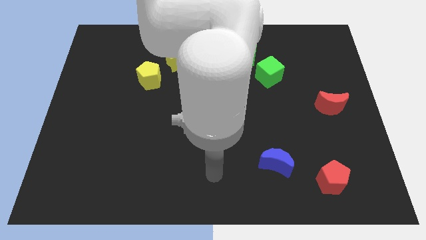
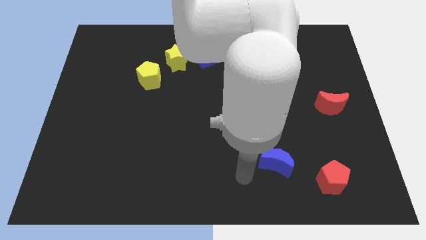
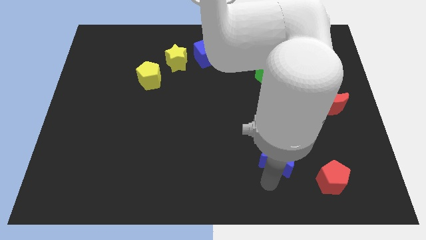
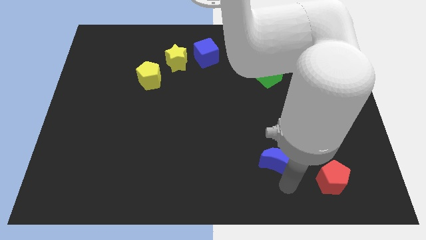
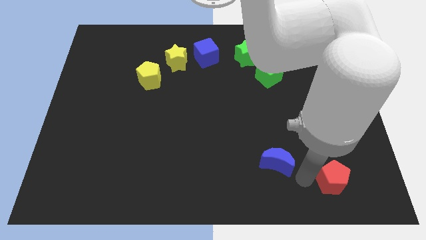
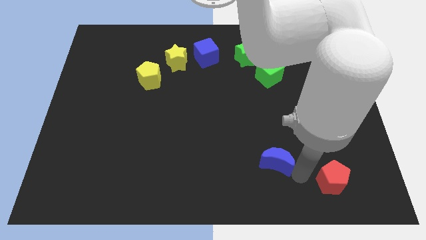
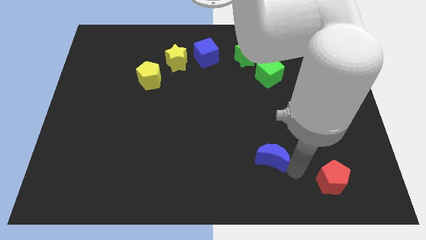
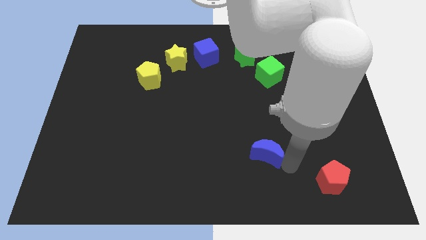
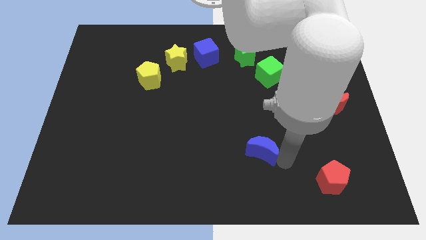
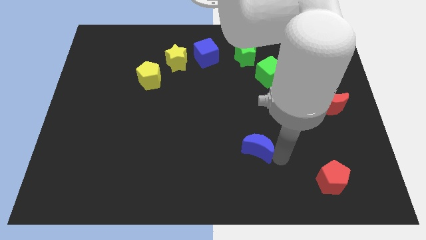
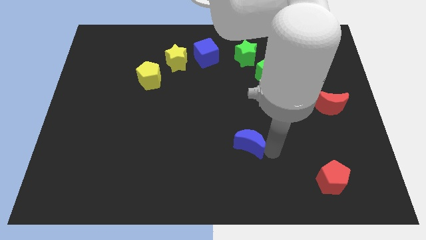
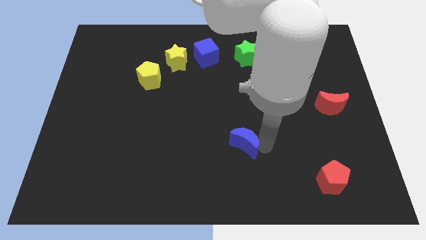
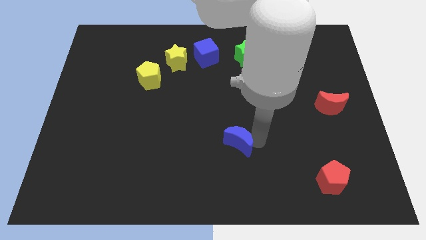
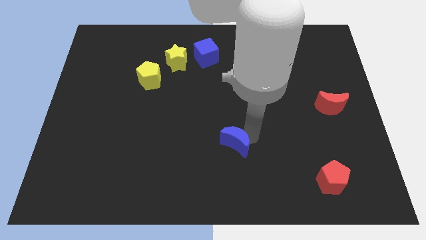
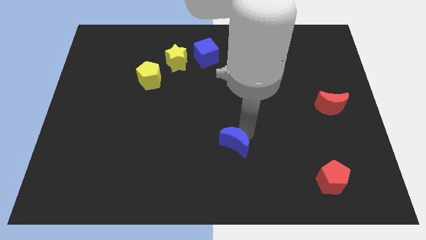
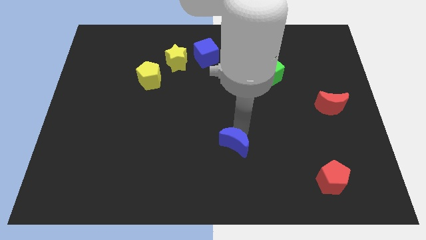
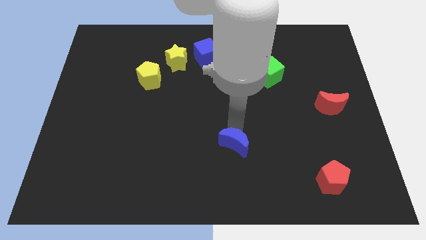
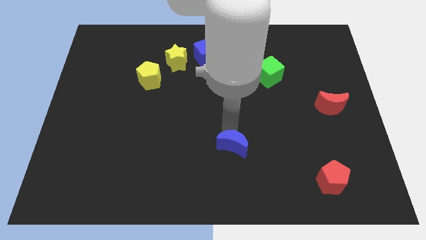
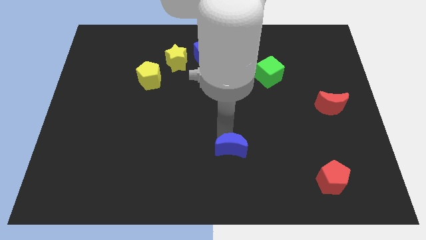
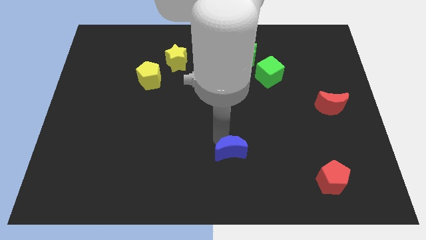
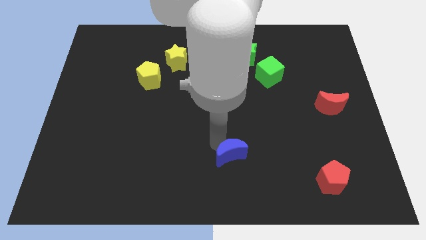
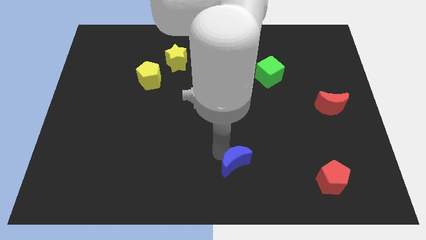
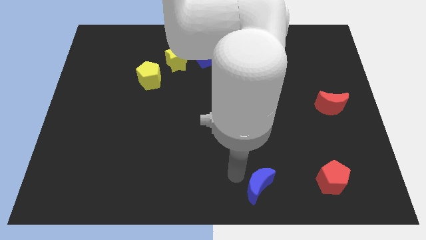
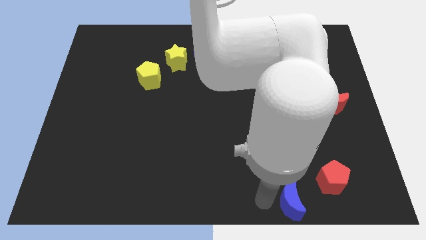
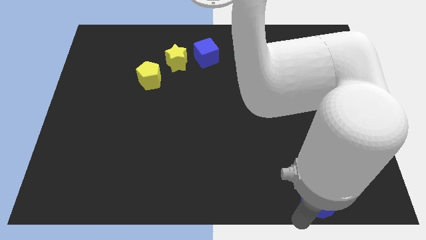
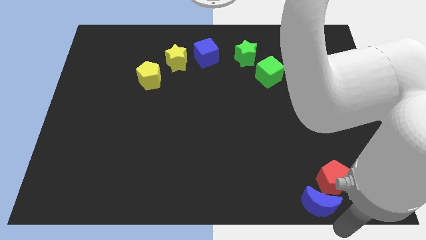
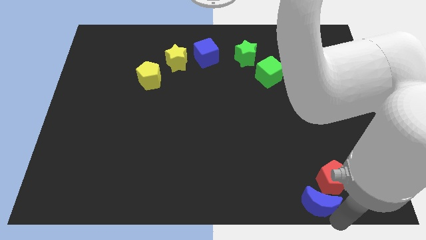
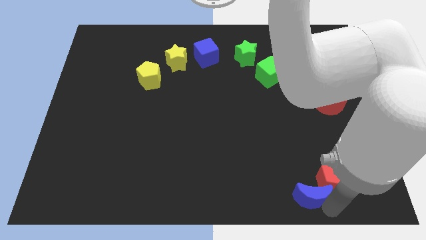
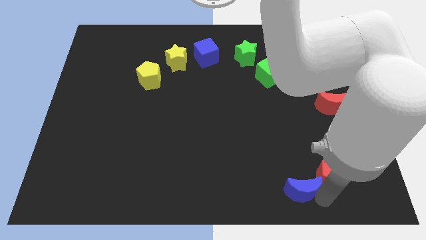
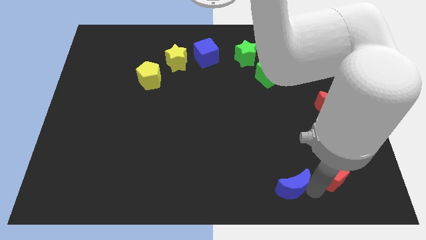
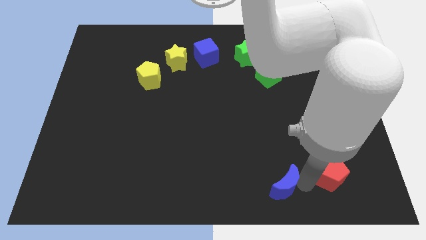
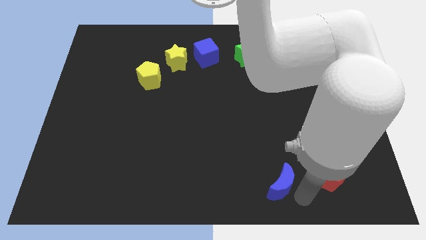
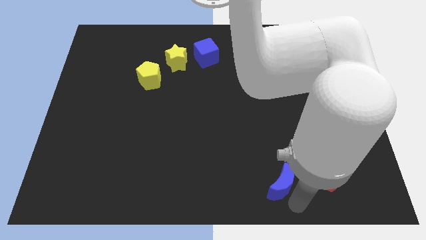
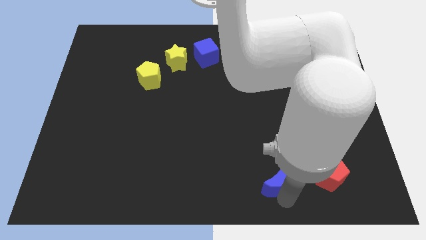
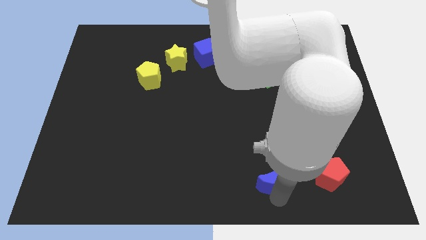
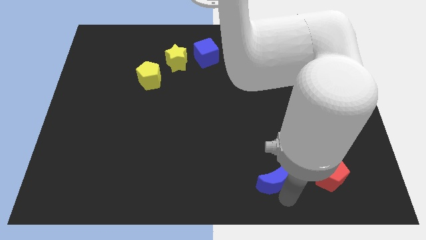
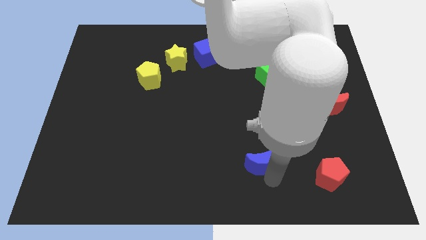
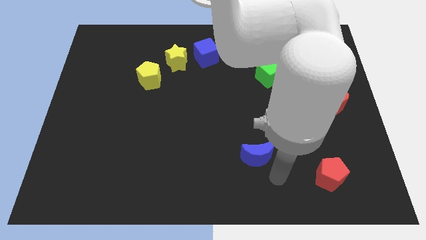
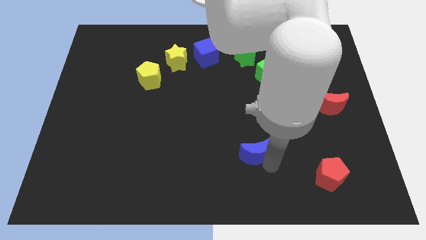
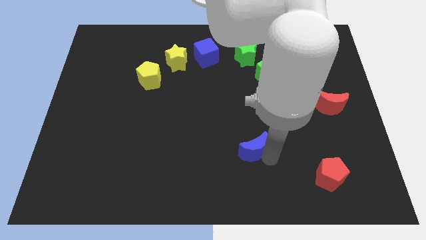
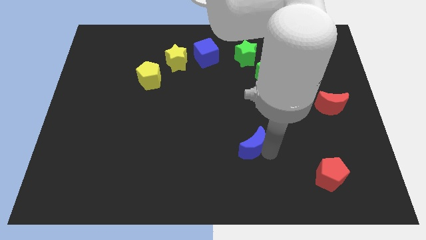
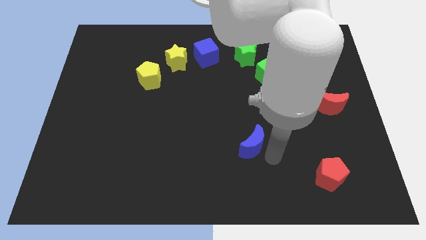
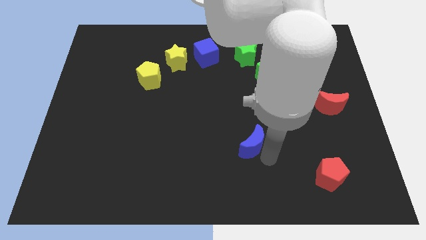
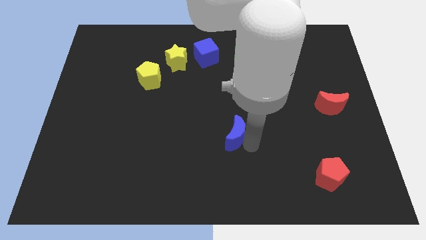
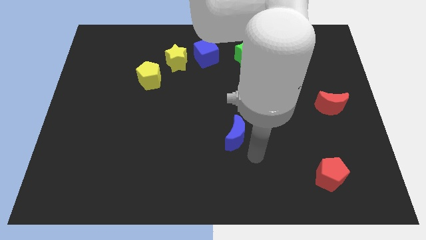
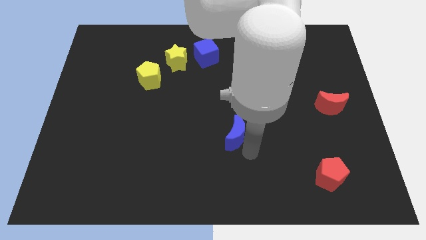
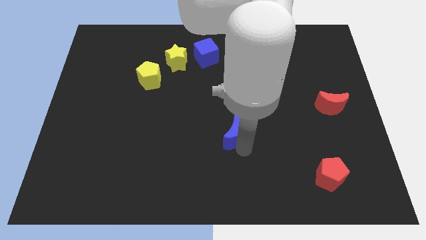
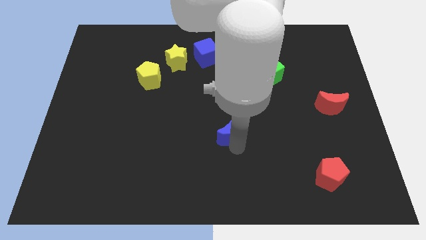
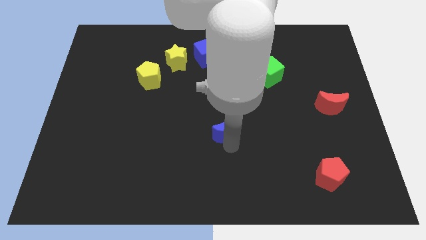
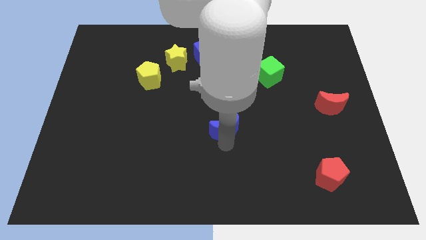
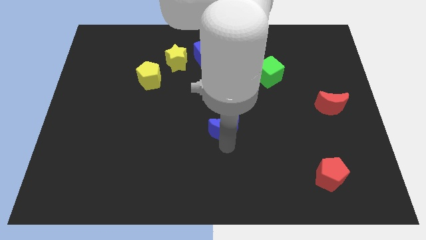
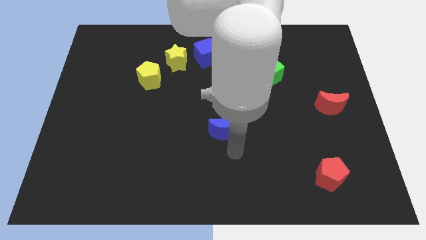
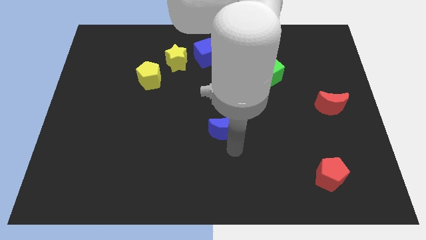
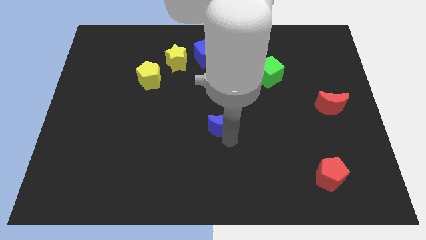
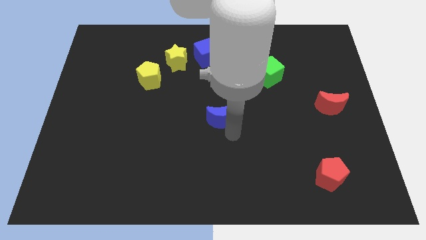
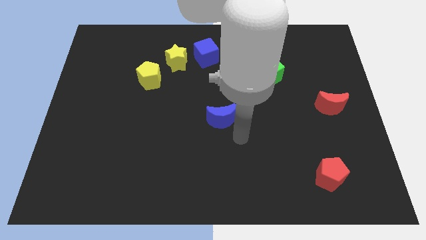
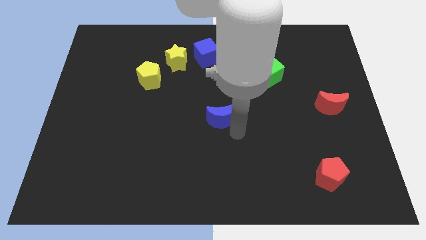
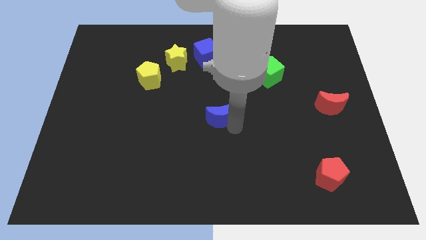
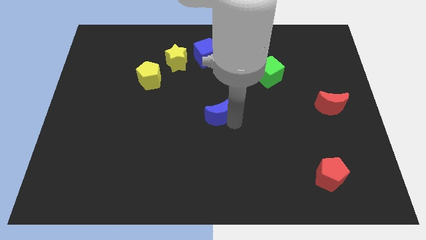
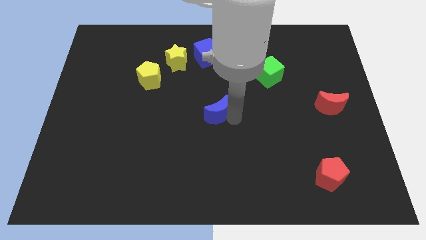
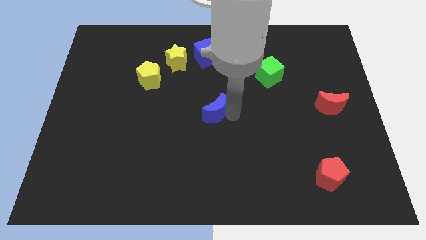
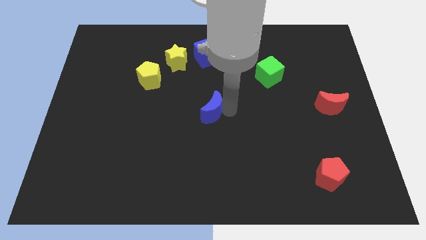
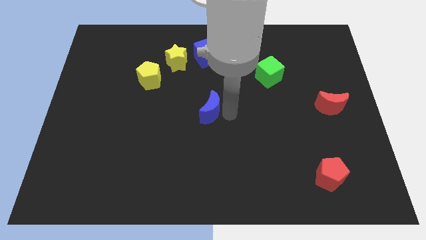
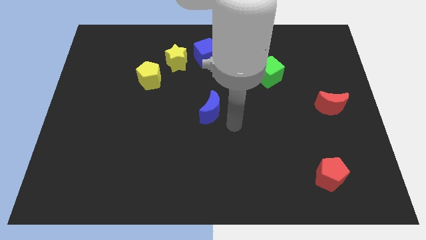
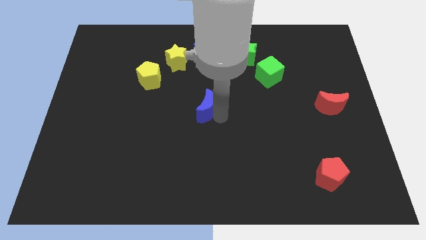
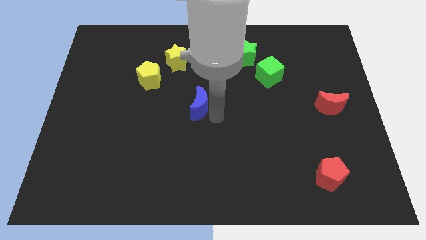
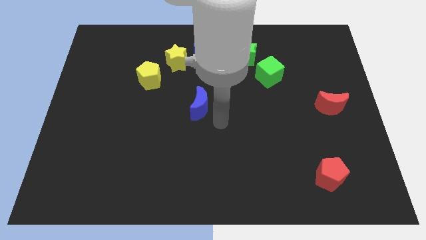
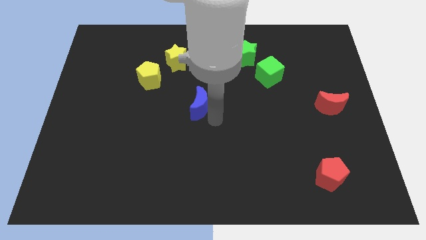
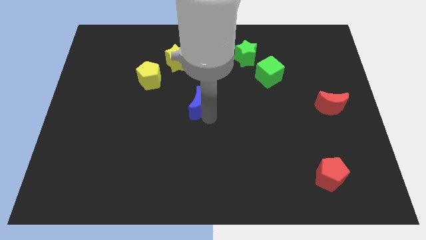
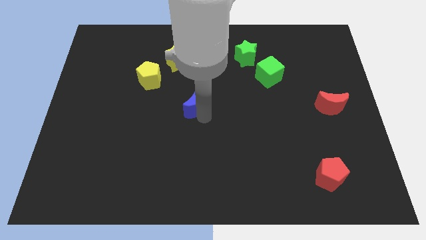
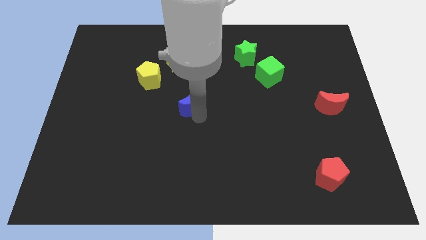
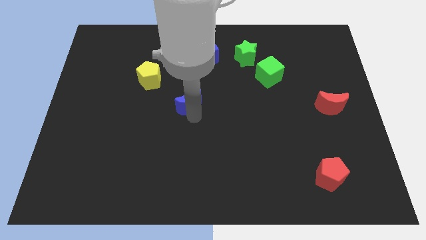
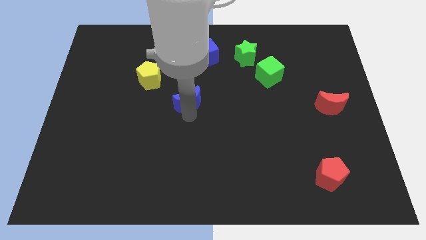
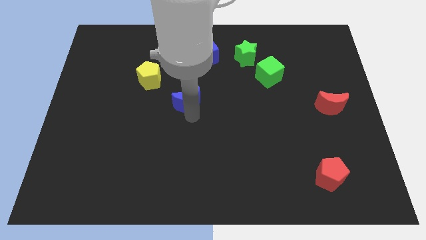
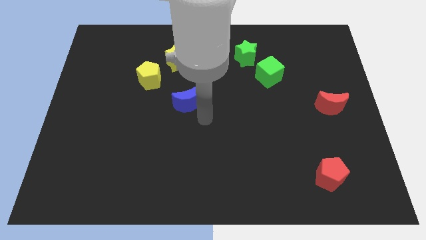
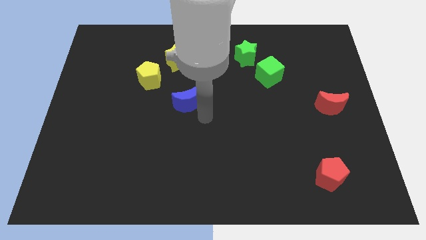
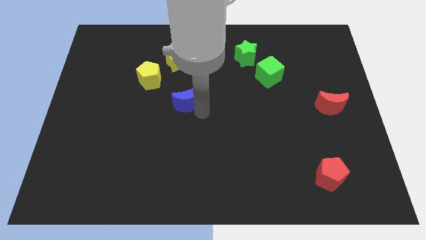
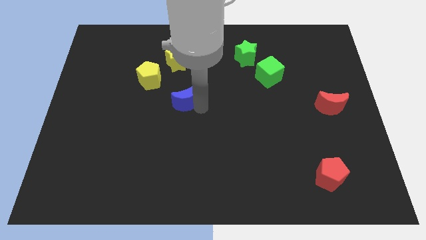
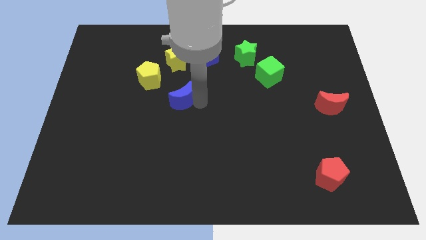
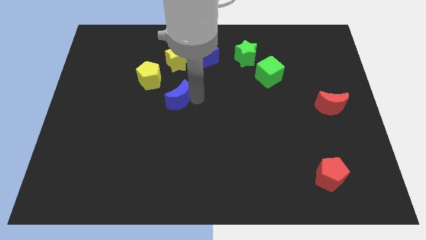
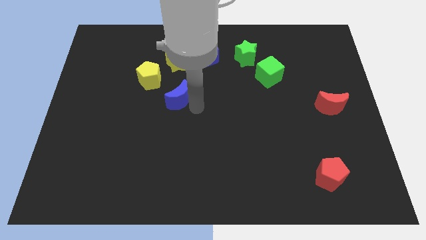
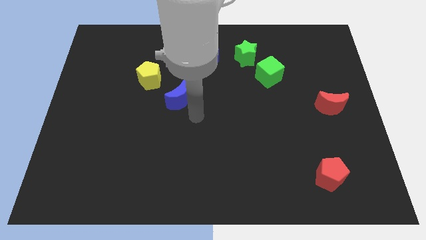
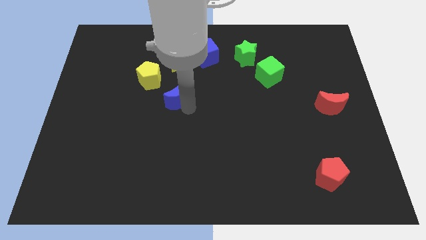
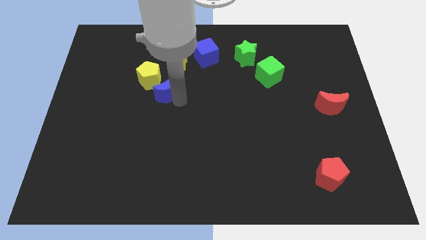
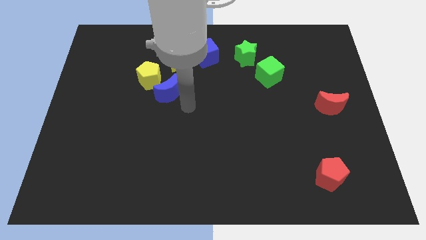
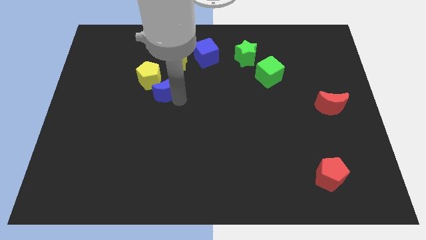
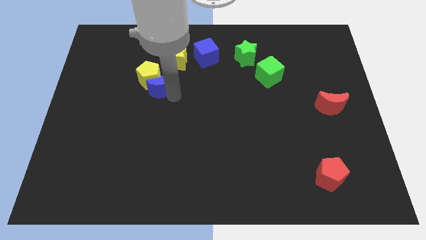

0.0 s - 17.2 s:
slide the blue moon next to the yellow pentagon
